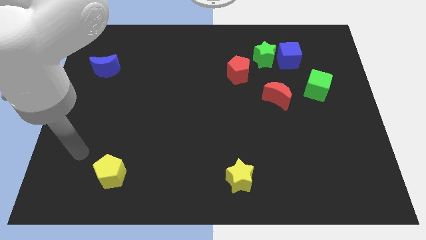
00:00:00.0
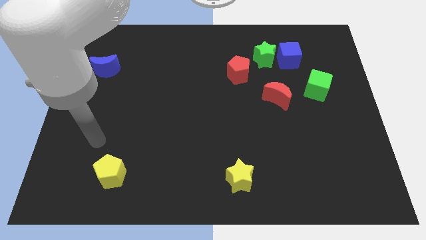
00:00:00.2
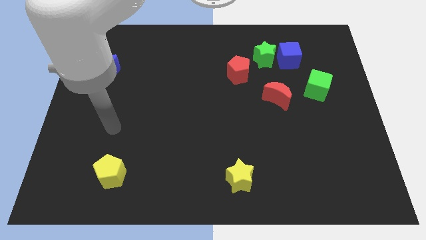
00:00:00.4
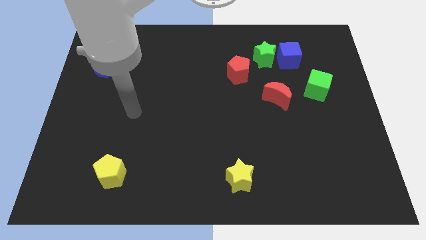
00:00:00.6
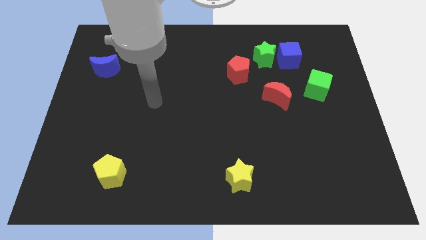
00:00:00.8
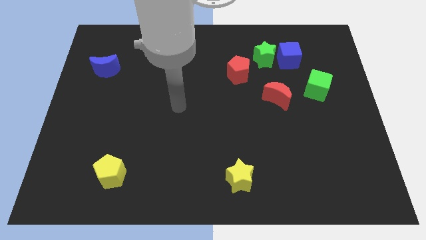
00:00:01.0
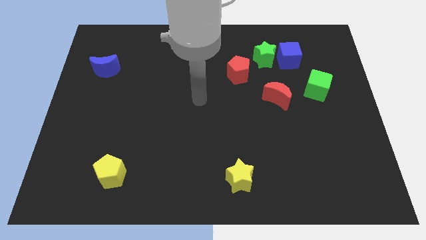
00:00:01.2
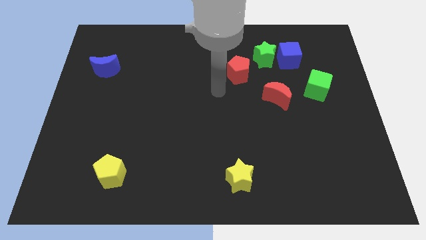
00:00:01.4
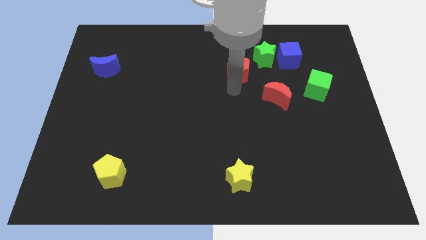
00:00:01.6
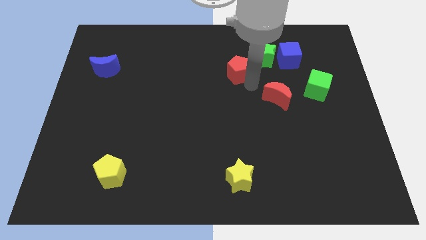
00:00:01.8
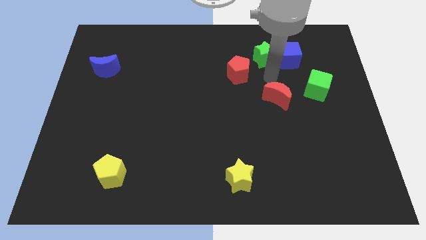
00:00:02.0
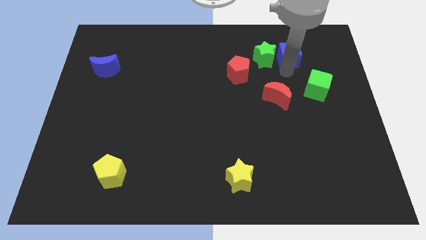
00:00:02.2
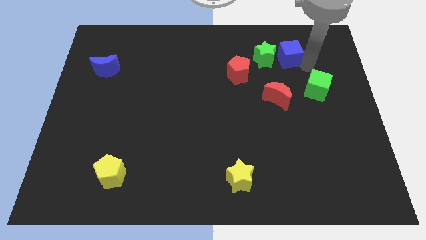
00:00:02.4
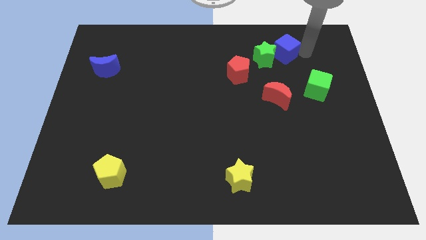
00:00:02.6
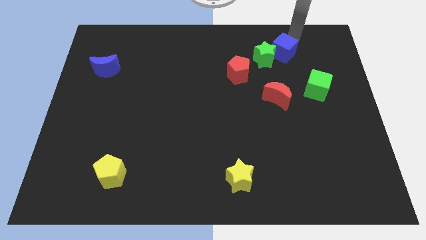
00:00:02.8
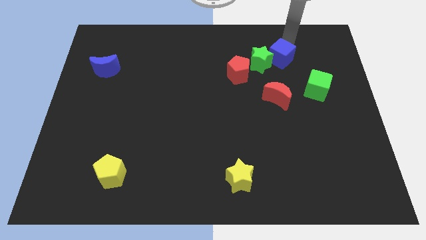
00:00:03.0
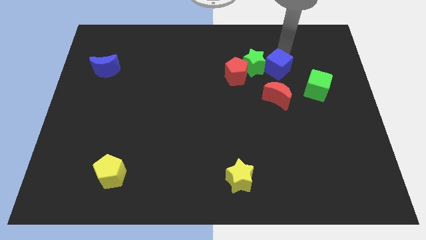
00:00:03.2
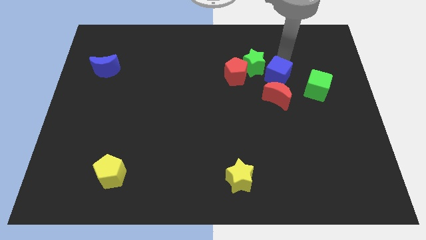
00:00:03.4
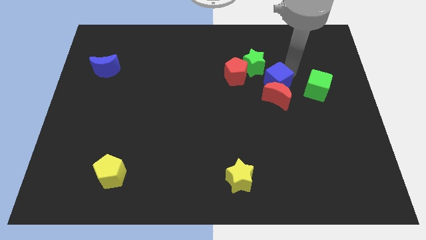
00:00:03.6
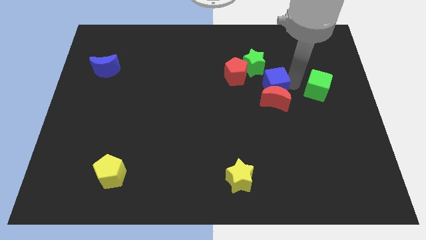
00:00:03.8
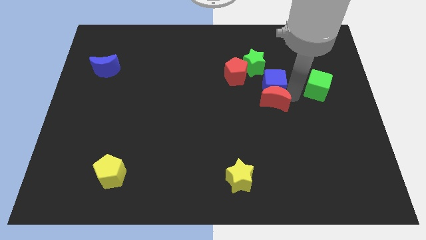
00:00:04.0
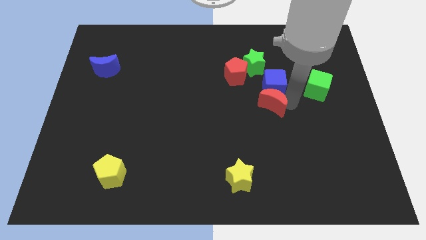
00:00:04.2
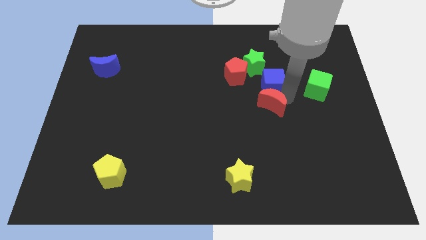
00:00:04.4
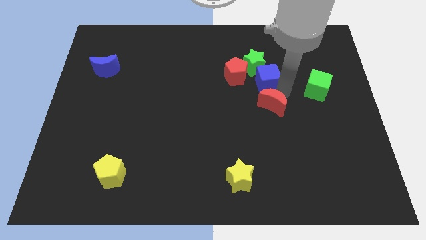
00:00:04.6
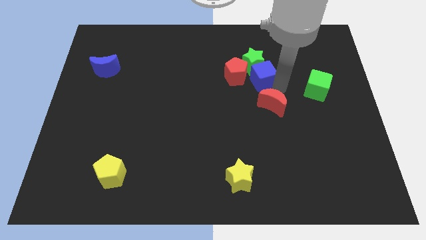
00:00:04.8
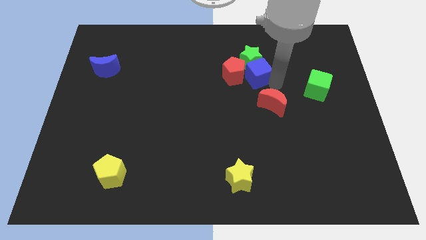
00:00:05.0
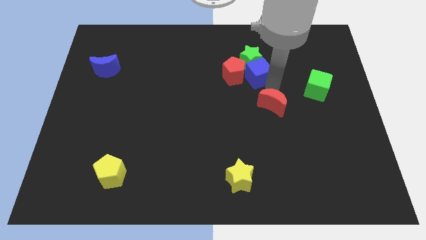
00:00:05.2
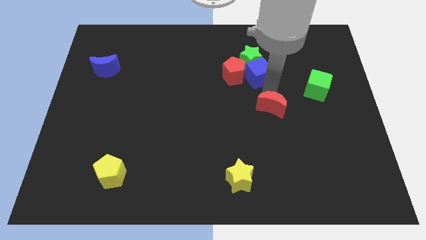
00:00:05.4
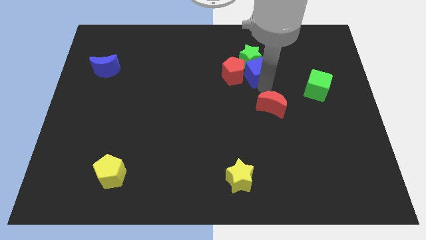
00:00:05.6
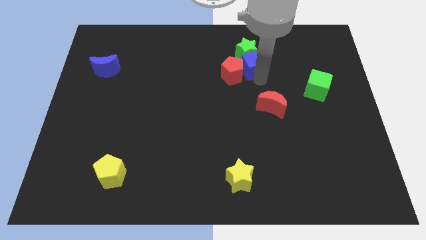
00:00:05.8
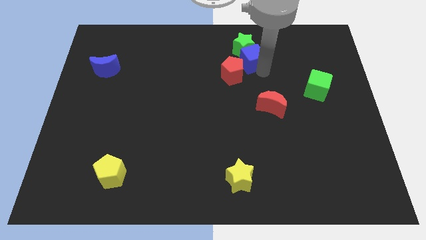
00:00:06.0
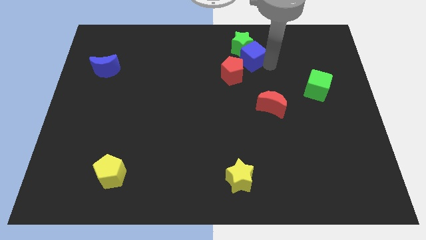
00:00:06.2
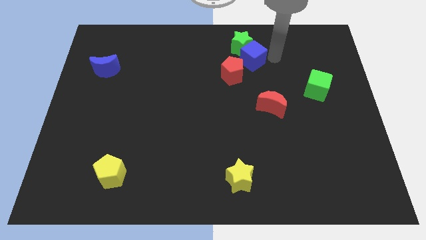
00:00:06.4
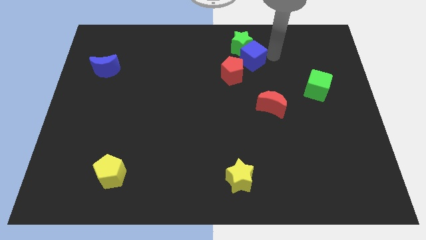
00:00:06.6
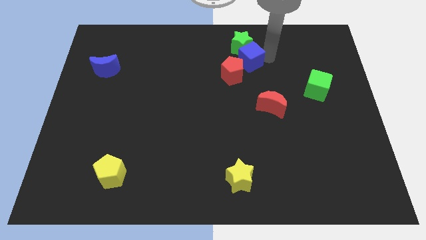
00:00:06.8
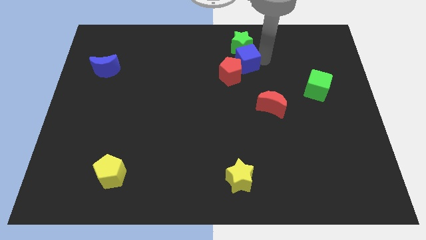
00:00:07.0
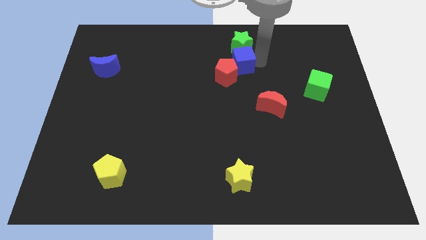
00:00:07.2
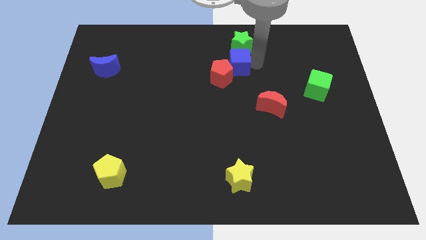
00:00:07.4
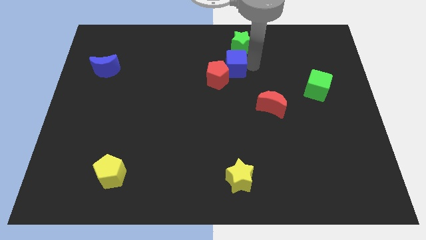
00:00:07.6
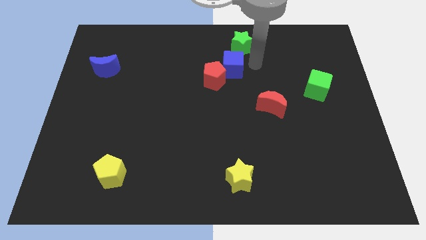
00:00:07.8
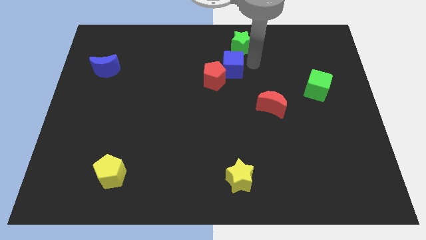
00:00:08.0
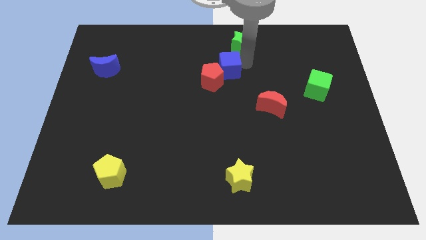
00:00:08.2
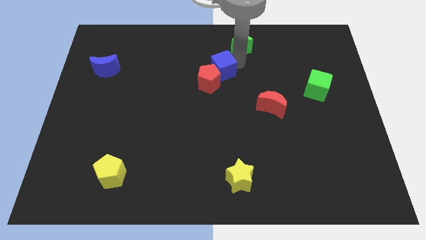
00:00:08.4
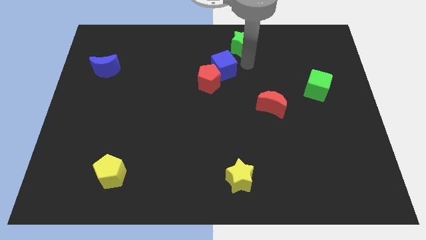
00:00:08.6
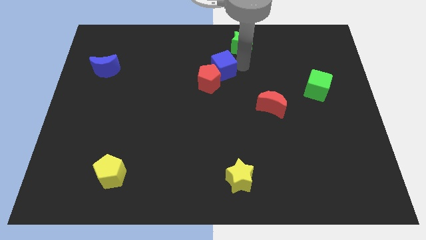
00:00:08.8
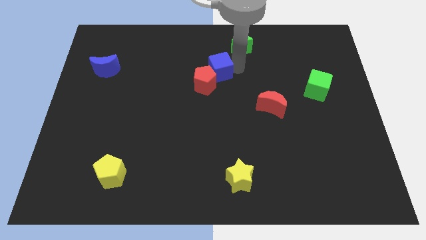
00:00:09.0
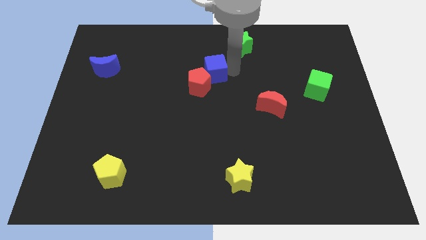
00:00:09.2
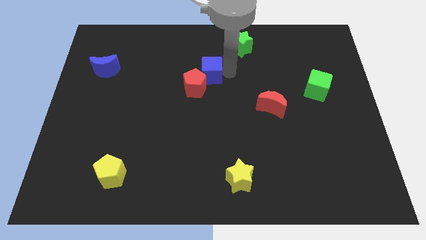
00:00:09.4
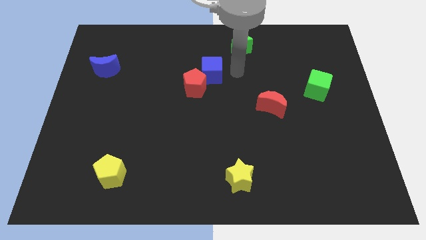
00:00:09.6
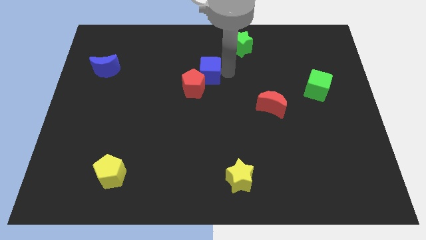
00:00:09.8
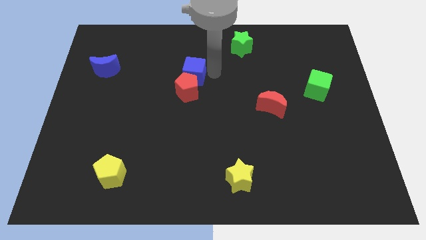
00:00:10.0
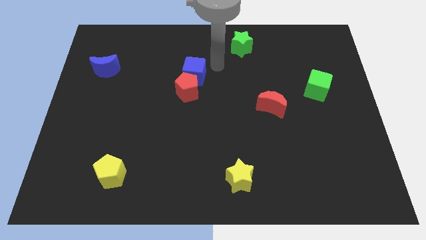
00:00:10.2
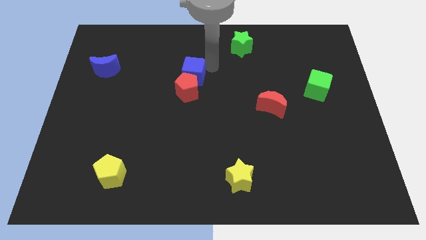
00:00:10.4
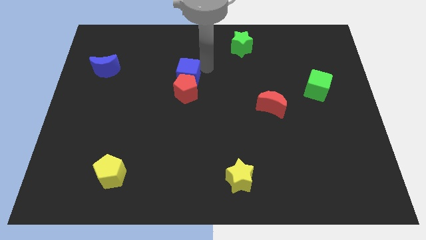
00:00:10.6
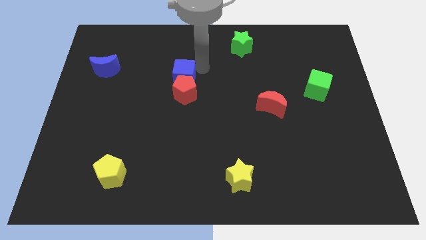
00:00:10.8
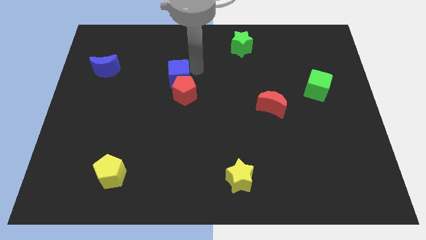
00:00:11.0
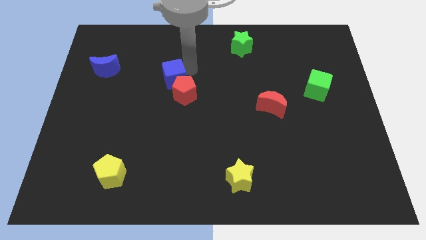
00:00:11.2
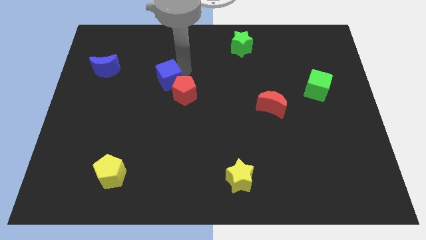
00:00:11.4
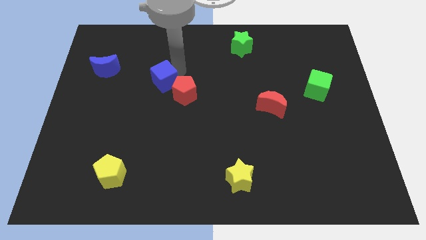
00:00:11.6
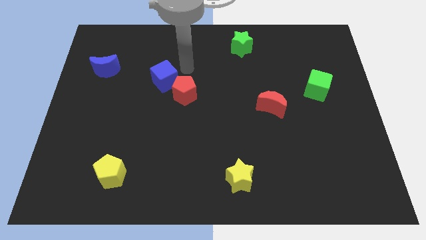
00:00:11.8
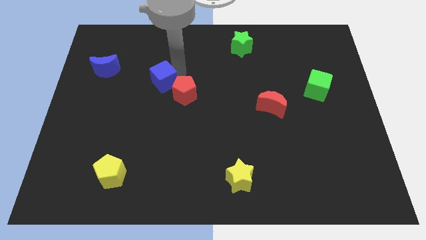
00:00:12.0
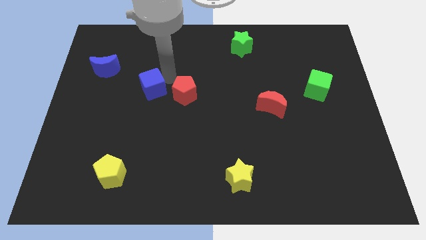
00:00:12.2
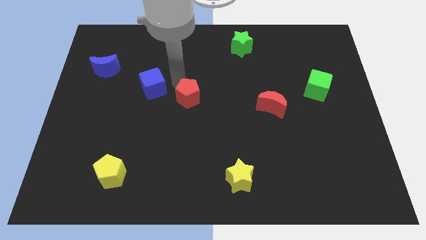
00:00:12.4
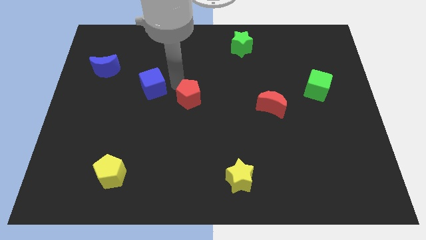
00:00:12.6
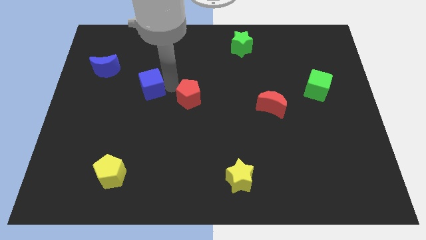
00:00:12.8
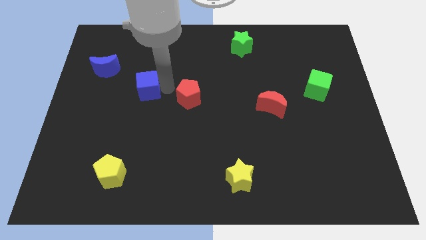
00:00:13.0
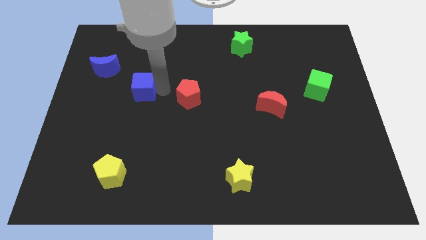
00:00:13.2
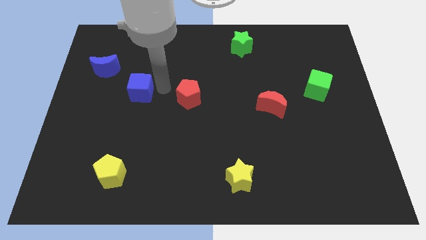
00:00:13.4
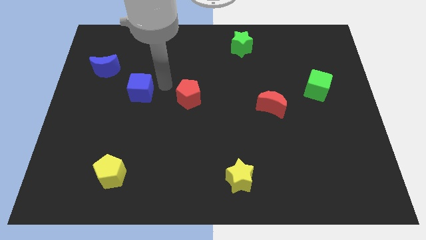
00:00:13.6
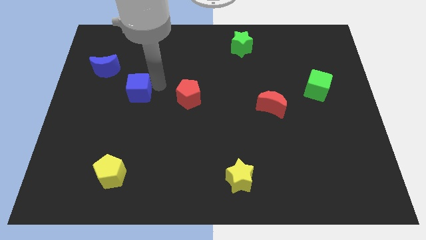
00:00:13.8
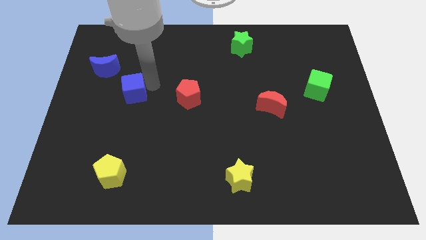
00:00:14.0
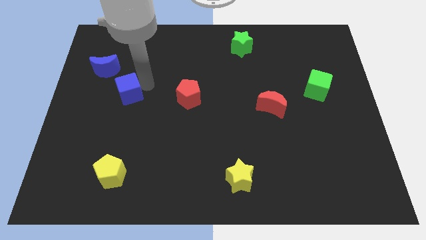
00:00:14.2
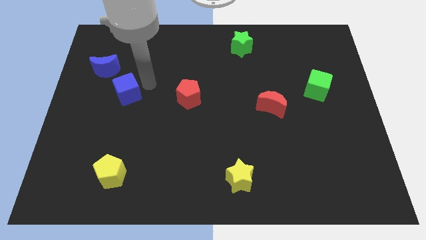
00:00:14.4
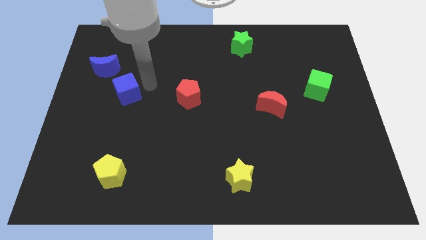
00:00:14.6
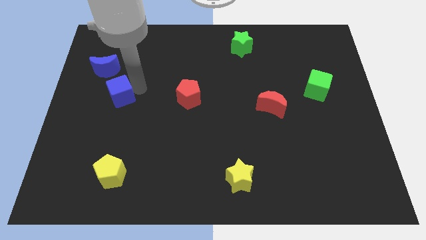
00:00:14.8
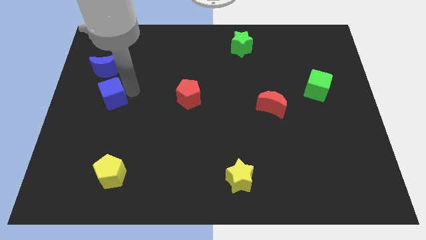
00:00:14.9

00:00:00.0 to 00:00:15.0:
put the blue cube to the bottom of the blue moon
